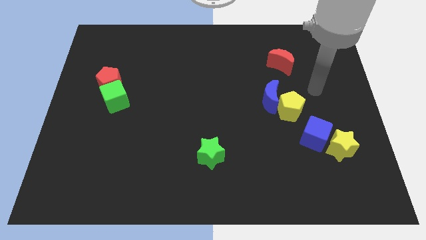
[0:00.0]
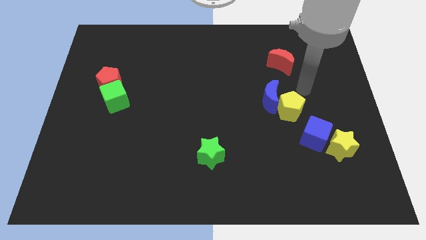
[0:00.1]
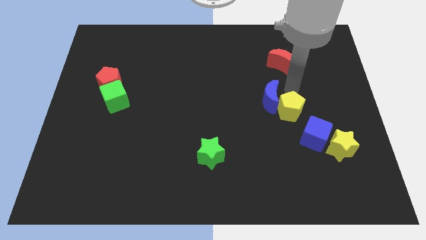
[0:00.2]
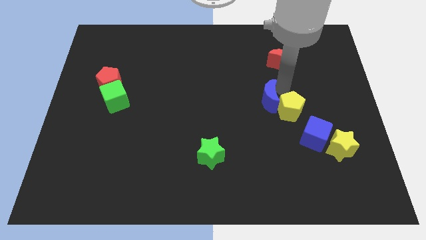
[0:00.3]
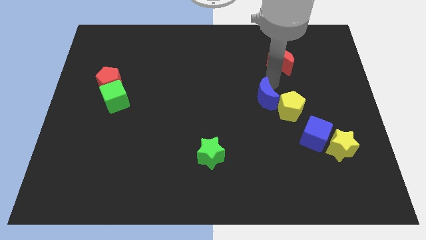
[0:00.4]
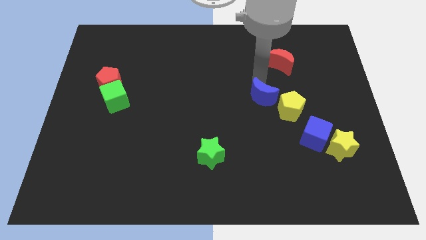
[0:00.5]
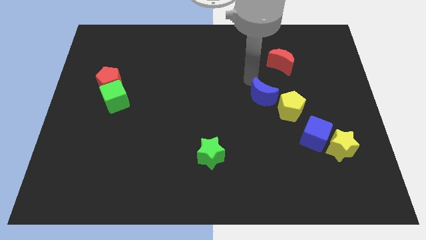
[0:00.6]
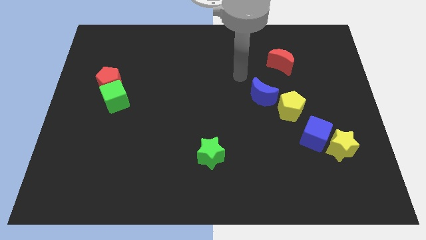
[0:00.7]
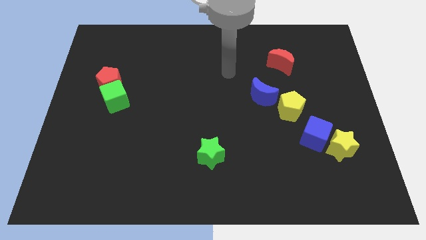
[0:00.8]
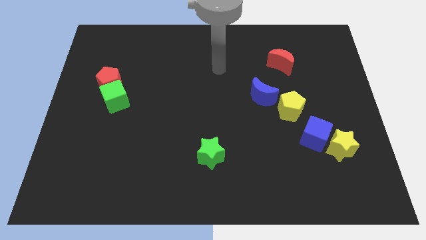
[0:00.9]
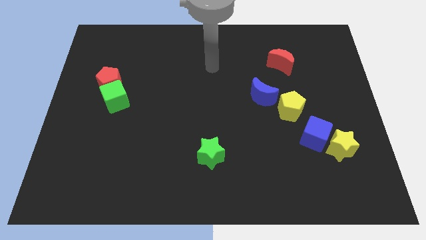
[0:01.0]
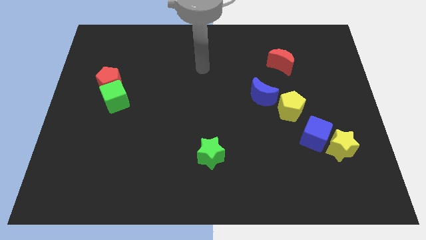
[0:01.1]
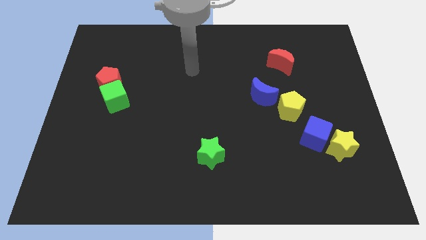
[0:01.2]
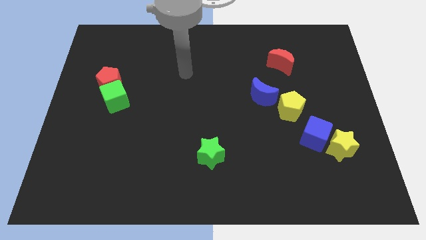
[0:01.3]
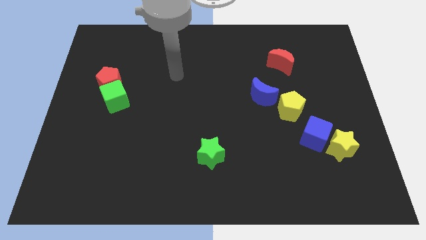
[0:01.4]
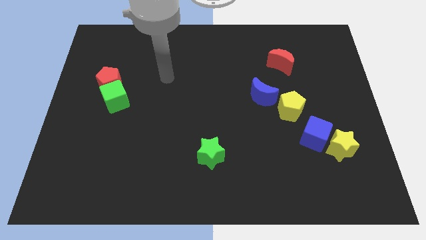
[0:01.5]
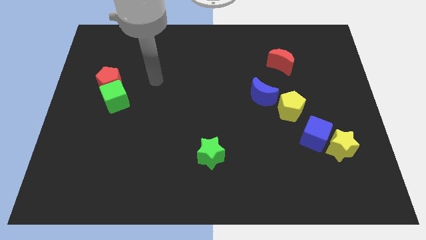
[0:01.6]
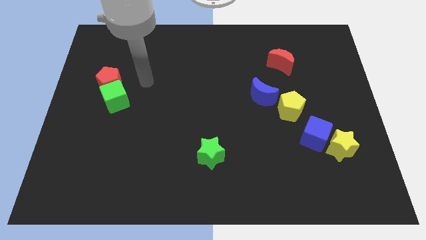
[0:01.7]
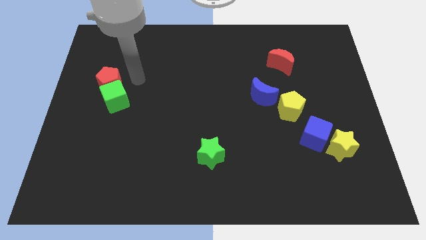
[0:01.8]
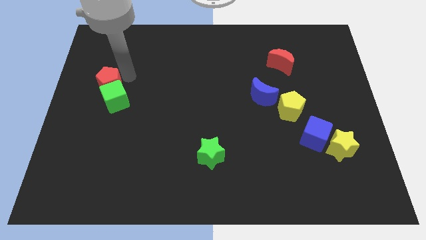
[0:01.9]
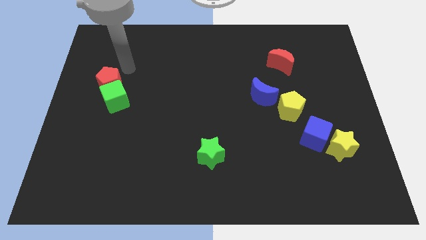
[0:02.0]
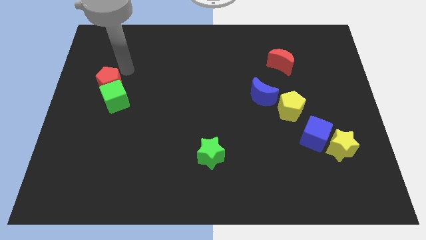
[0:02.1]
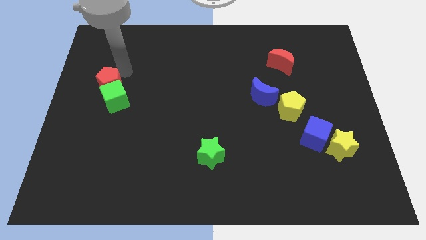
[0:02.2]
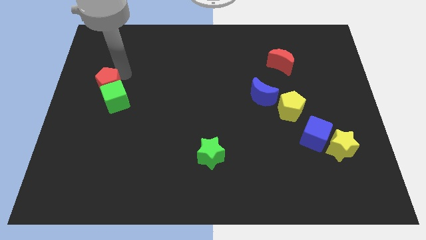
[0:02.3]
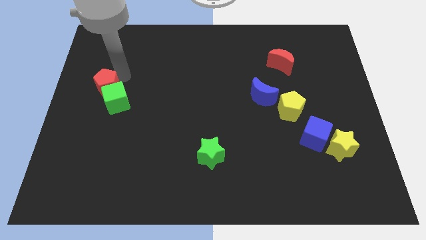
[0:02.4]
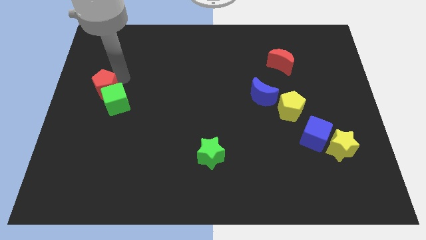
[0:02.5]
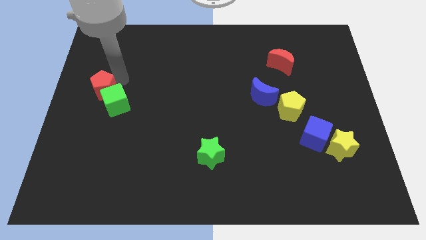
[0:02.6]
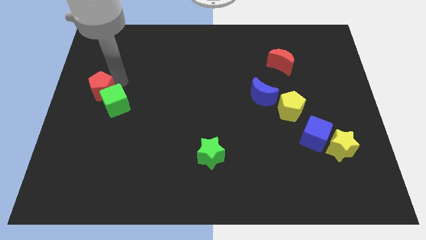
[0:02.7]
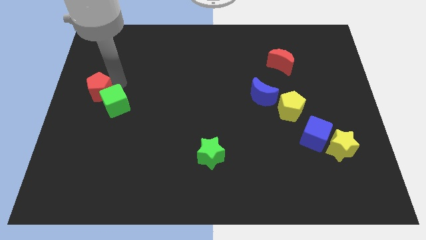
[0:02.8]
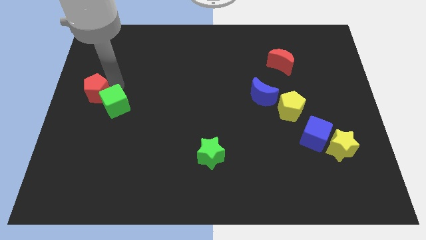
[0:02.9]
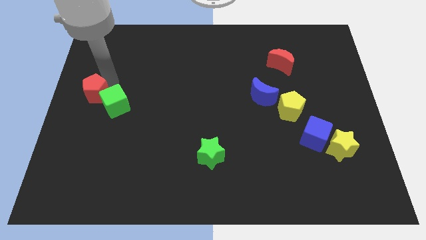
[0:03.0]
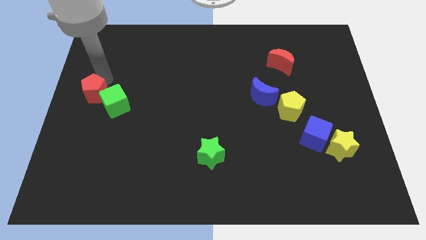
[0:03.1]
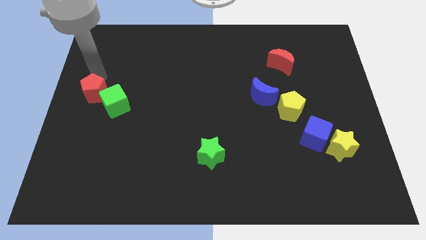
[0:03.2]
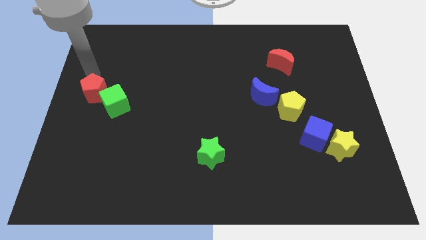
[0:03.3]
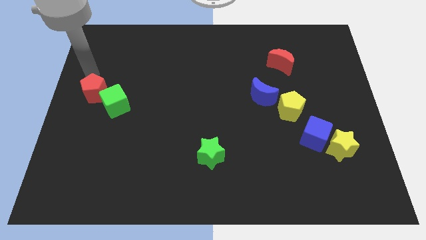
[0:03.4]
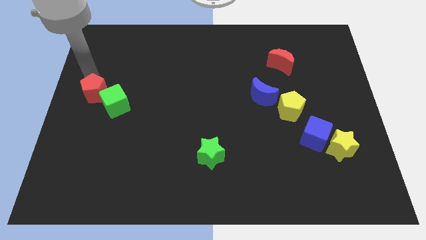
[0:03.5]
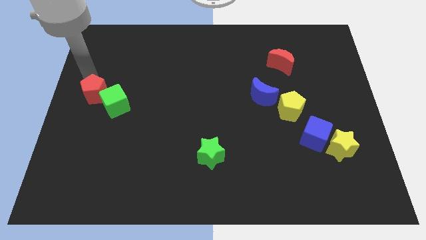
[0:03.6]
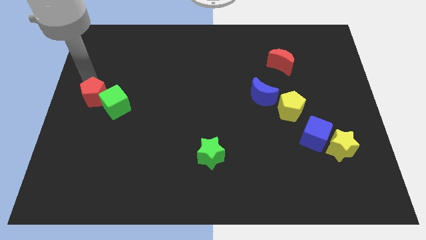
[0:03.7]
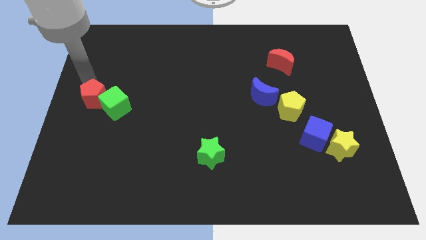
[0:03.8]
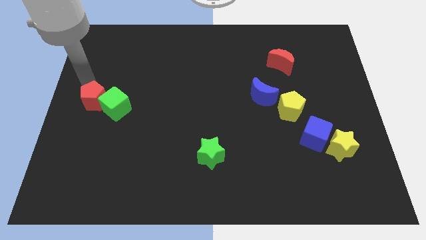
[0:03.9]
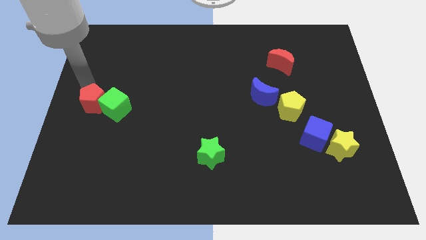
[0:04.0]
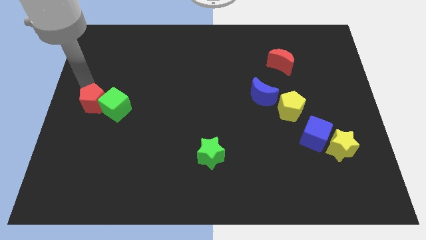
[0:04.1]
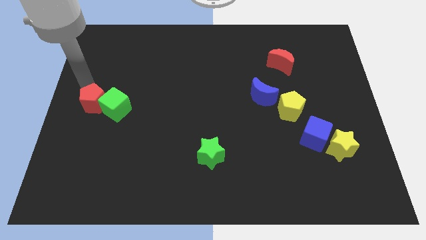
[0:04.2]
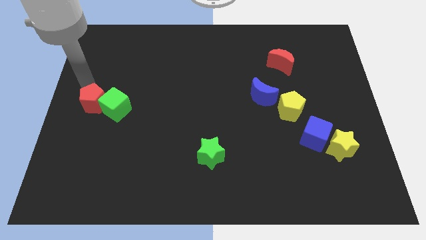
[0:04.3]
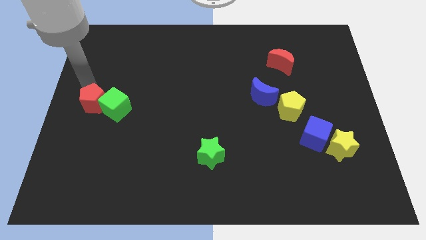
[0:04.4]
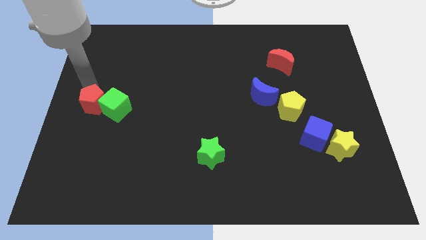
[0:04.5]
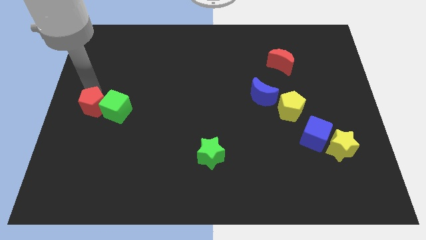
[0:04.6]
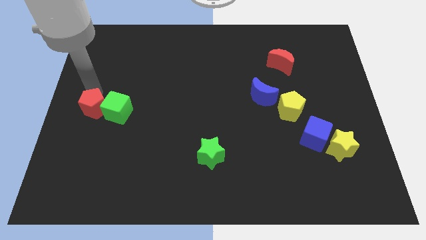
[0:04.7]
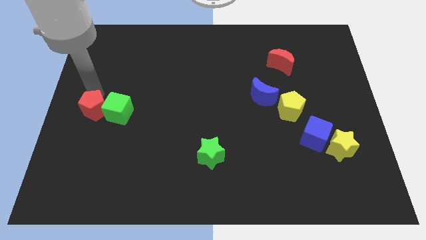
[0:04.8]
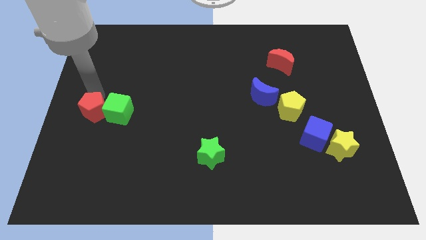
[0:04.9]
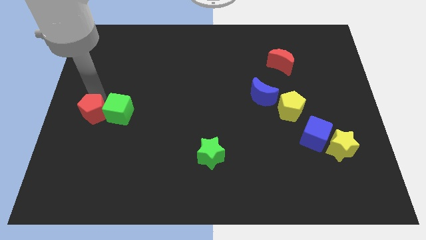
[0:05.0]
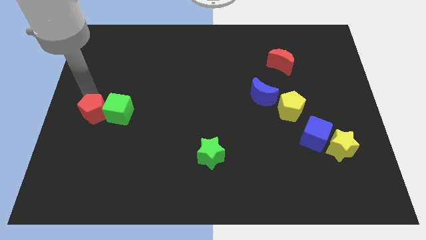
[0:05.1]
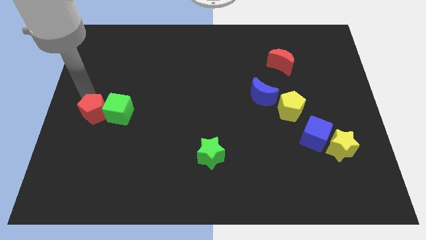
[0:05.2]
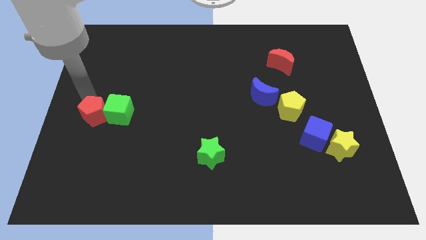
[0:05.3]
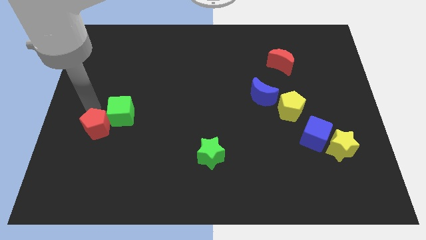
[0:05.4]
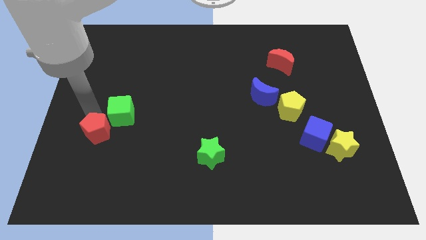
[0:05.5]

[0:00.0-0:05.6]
move the red pentagon to the bottom of the green cube

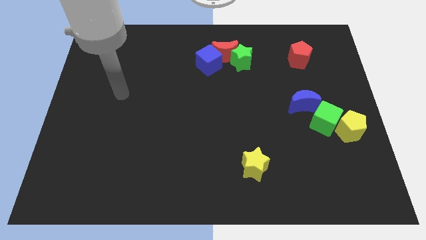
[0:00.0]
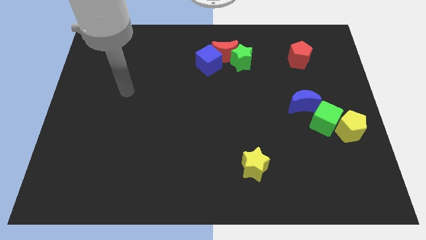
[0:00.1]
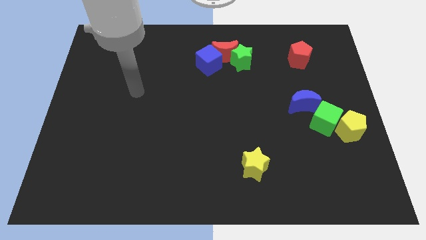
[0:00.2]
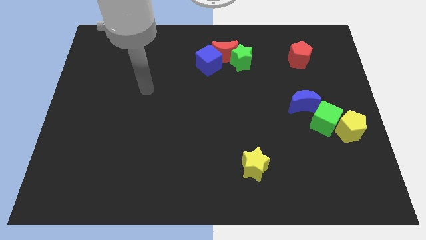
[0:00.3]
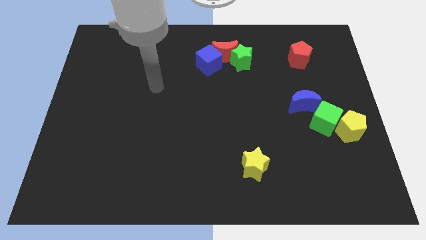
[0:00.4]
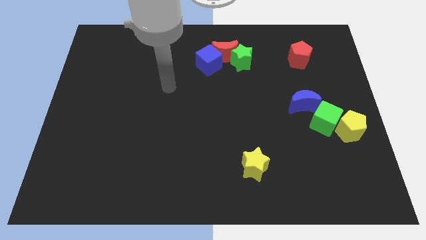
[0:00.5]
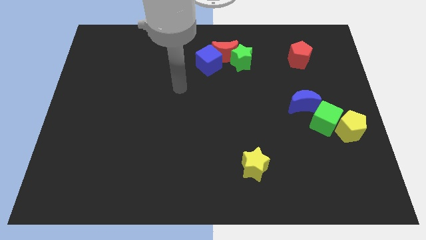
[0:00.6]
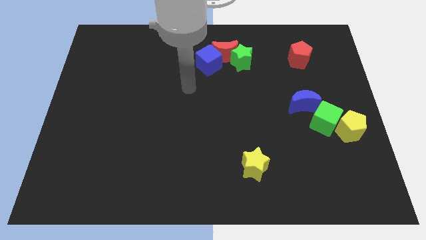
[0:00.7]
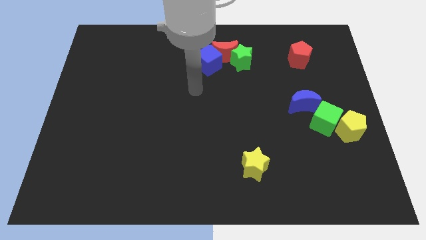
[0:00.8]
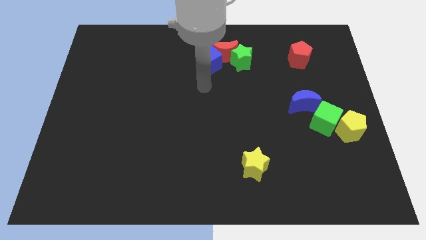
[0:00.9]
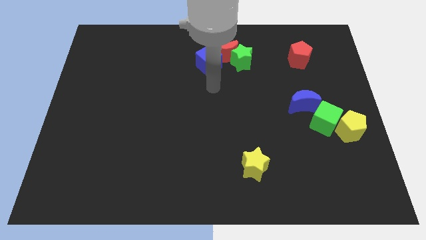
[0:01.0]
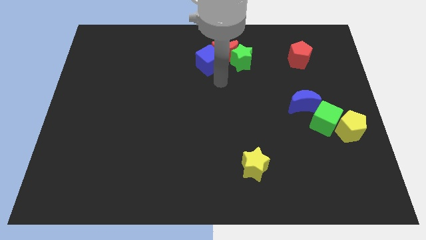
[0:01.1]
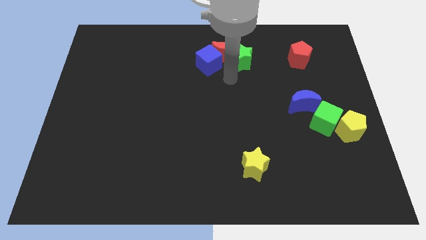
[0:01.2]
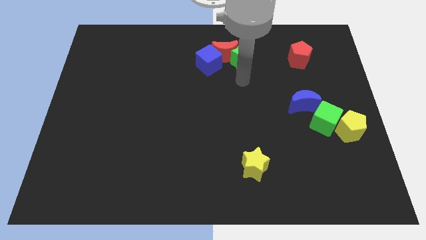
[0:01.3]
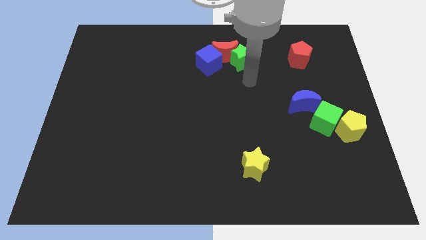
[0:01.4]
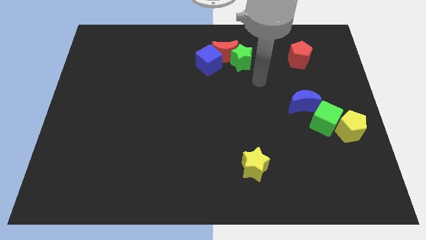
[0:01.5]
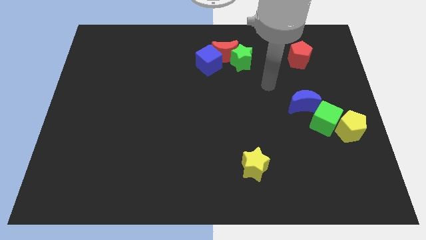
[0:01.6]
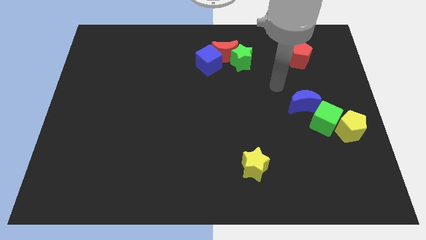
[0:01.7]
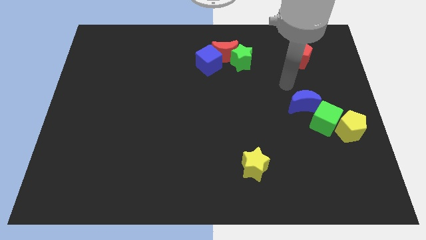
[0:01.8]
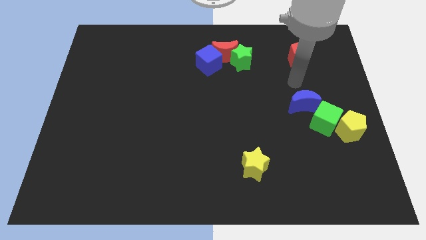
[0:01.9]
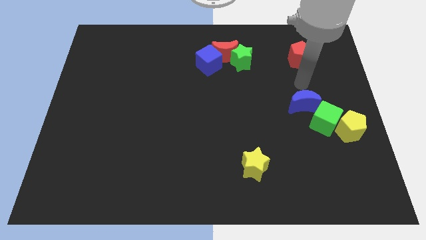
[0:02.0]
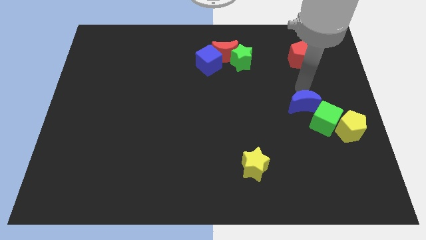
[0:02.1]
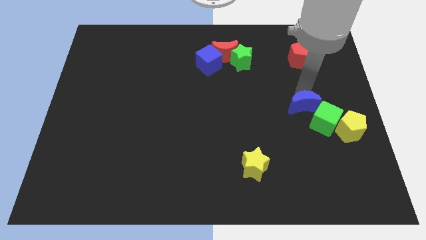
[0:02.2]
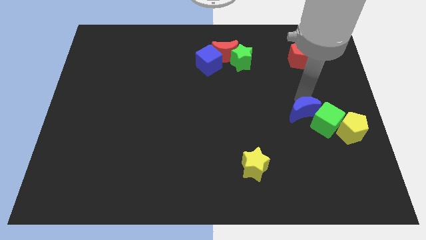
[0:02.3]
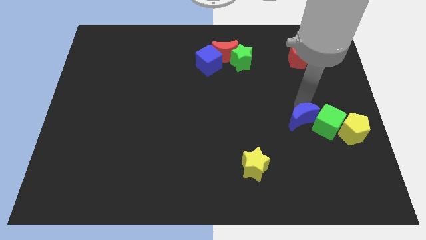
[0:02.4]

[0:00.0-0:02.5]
push the blue moon just left of the yellow pentagon
